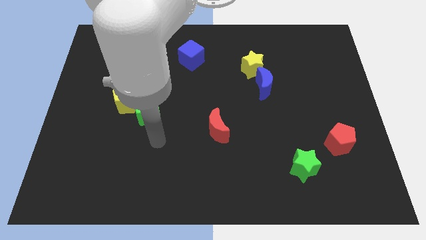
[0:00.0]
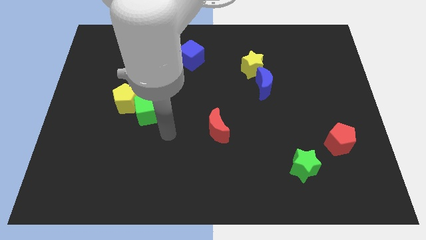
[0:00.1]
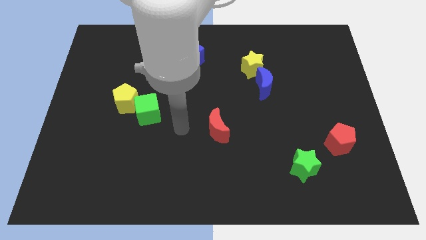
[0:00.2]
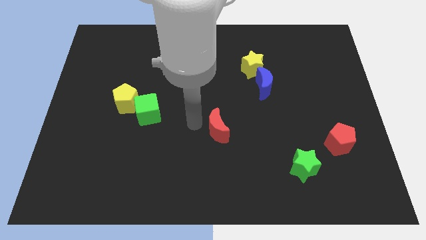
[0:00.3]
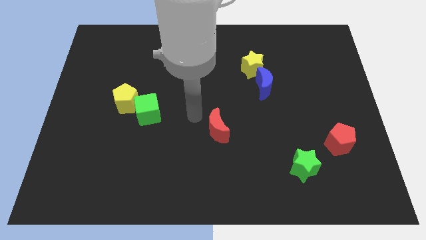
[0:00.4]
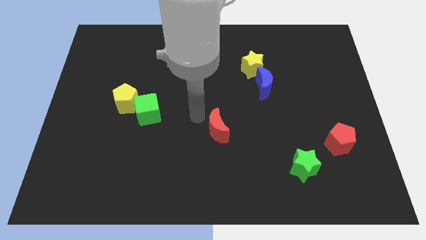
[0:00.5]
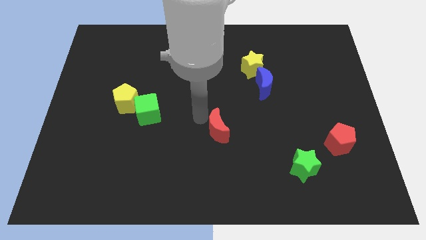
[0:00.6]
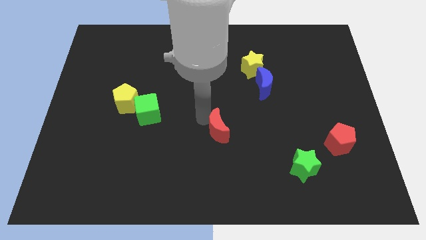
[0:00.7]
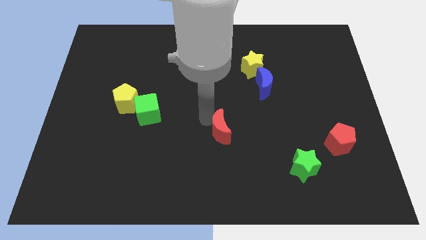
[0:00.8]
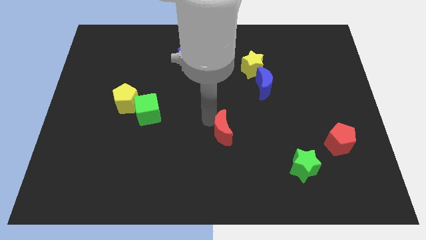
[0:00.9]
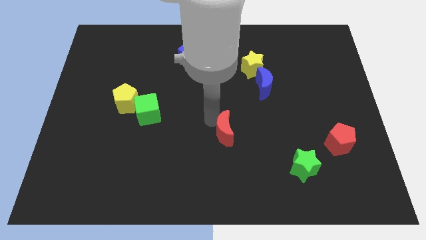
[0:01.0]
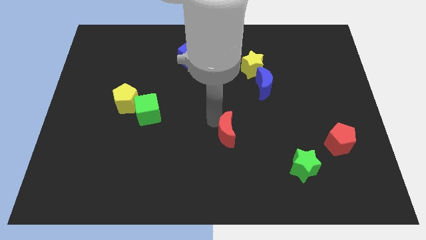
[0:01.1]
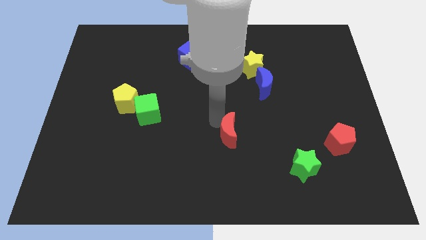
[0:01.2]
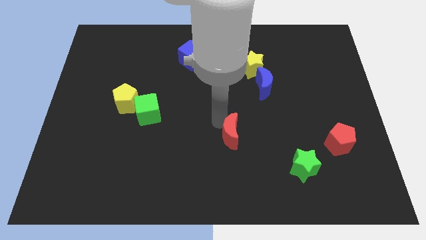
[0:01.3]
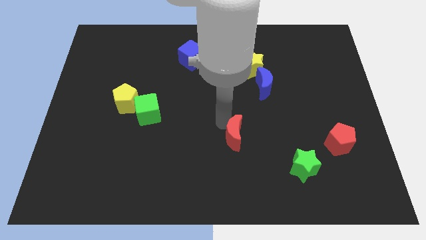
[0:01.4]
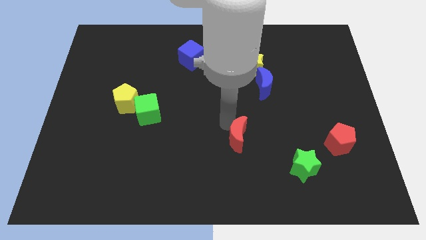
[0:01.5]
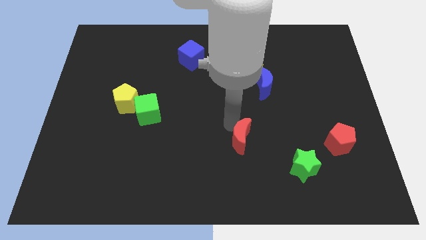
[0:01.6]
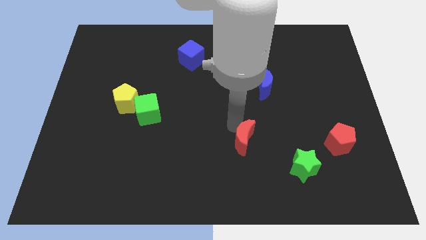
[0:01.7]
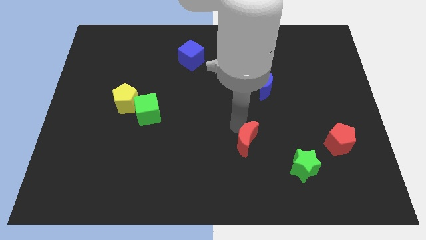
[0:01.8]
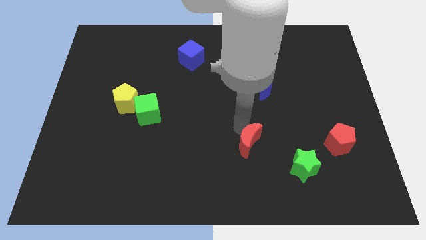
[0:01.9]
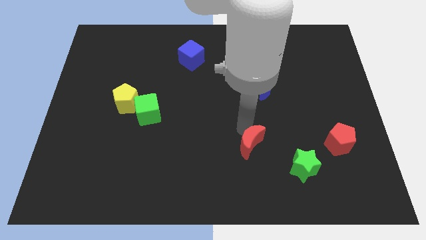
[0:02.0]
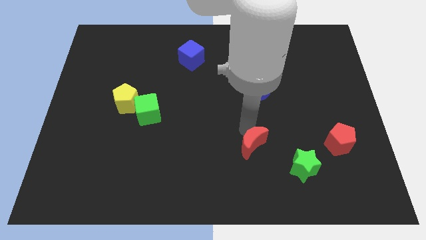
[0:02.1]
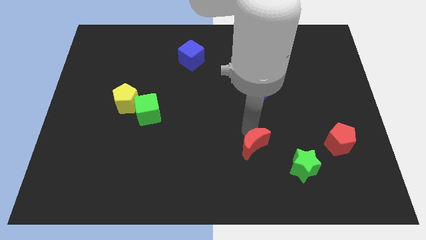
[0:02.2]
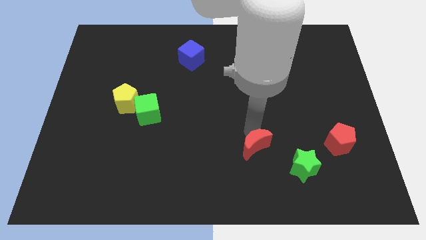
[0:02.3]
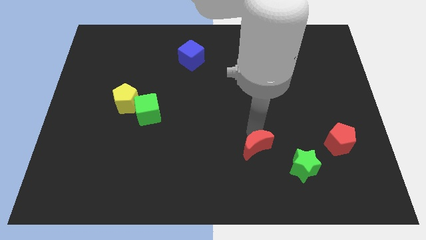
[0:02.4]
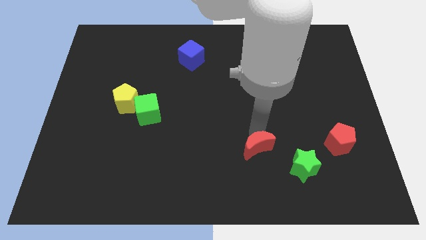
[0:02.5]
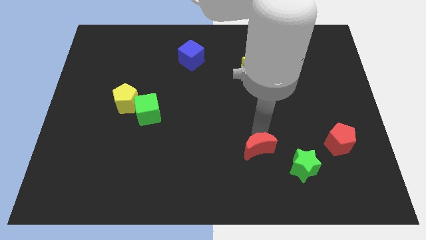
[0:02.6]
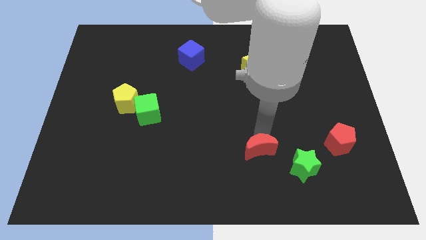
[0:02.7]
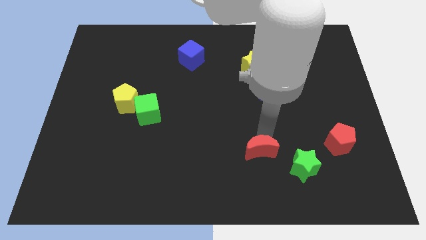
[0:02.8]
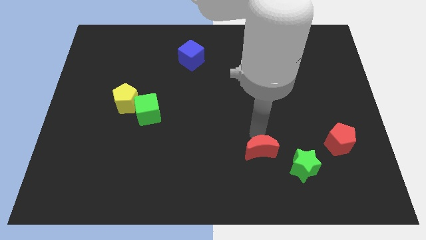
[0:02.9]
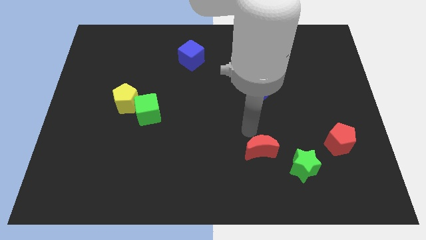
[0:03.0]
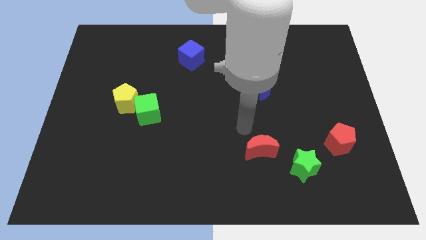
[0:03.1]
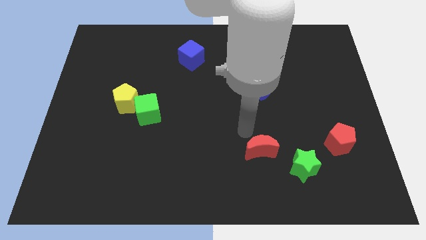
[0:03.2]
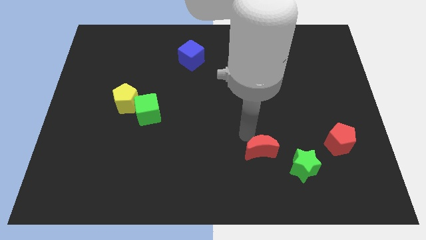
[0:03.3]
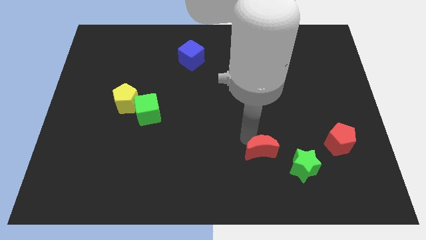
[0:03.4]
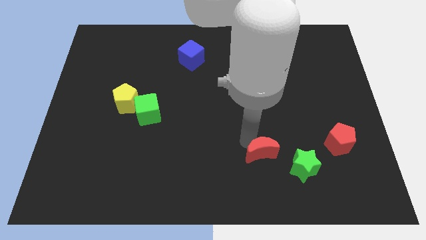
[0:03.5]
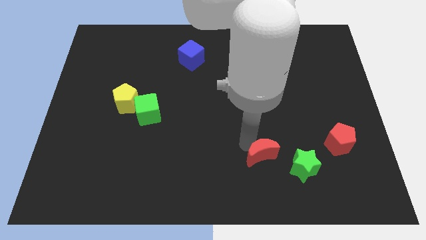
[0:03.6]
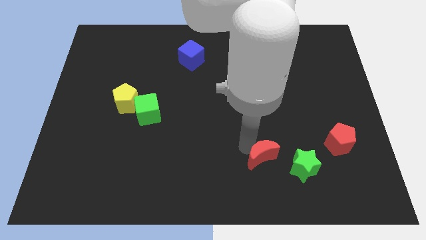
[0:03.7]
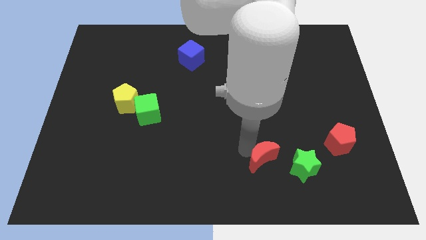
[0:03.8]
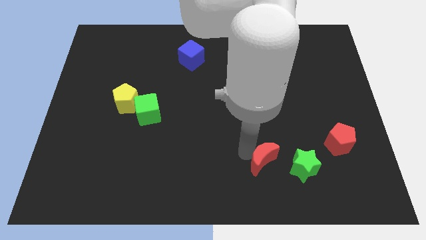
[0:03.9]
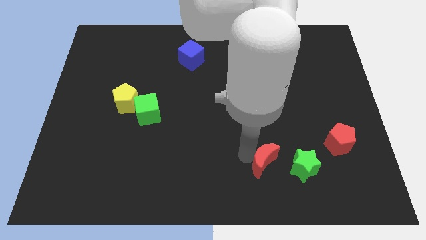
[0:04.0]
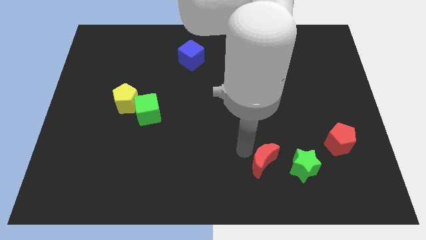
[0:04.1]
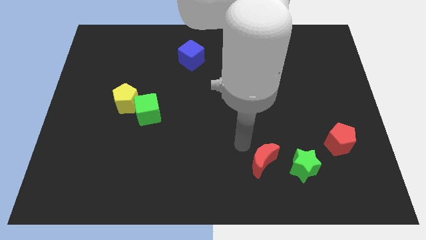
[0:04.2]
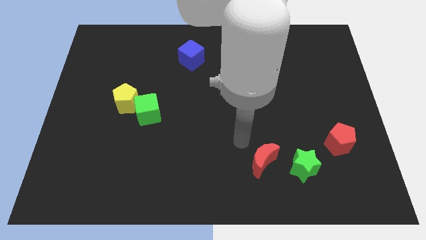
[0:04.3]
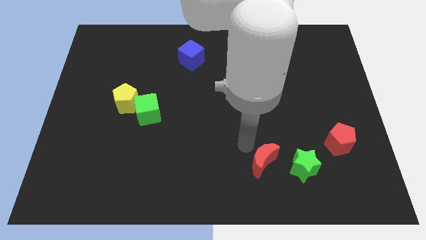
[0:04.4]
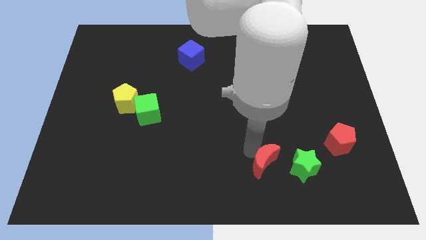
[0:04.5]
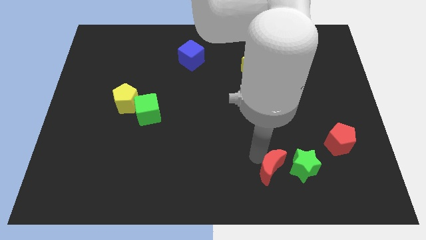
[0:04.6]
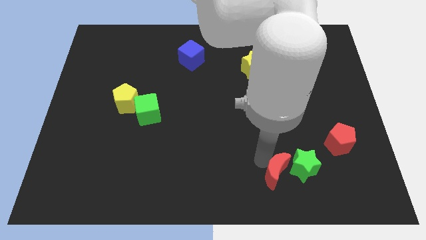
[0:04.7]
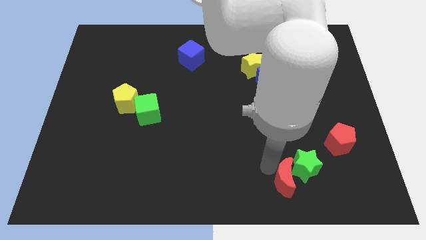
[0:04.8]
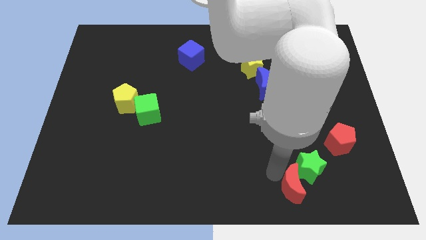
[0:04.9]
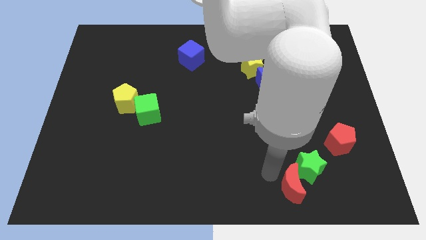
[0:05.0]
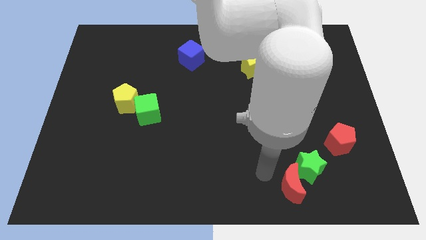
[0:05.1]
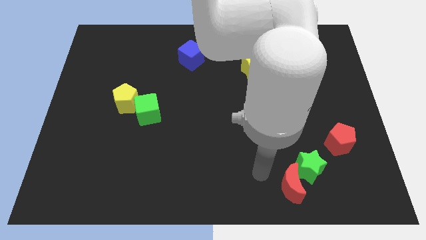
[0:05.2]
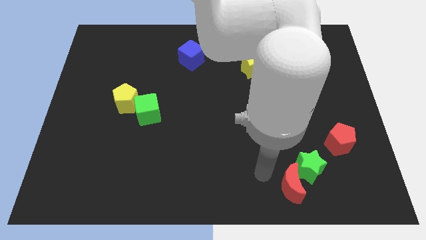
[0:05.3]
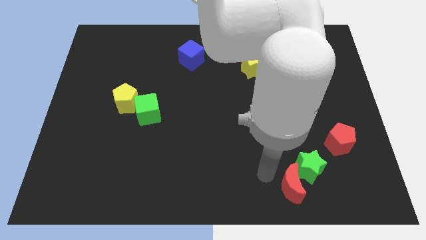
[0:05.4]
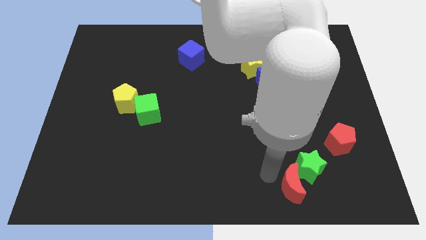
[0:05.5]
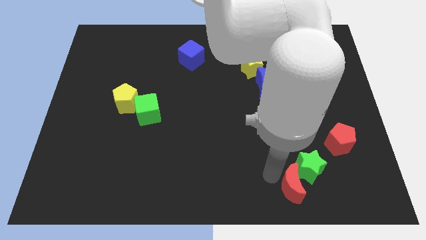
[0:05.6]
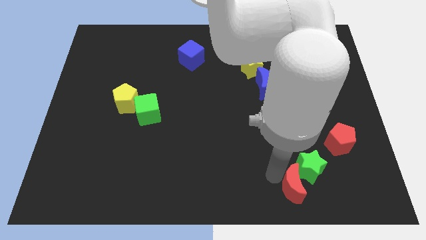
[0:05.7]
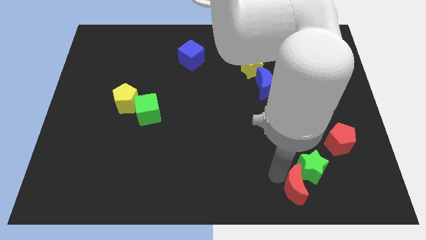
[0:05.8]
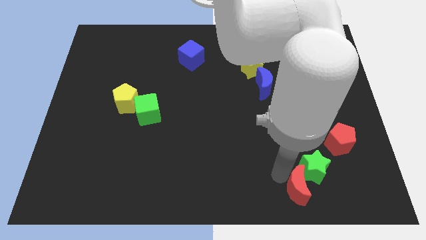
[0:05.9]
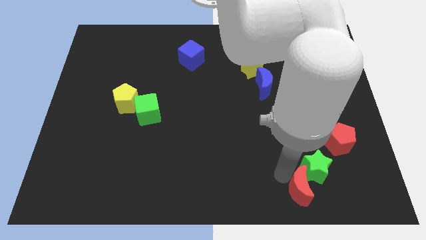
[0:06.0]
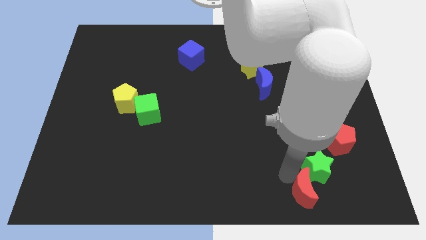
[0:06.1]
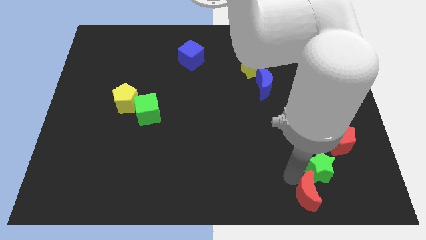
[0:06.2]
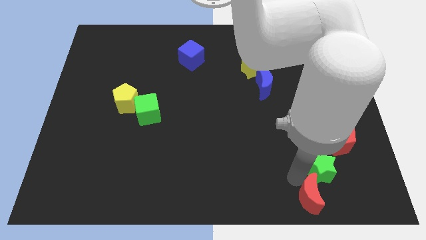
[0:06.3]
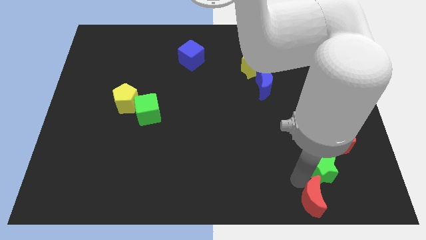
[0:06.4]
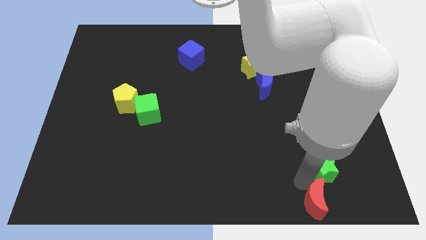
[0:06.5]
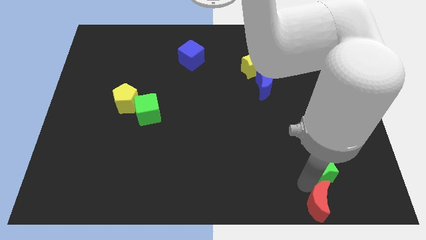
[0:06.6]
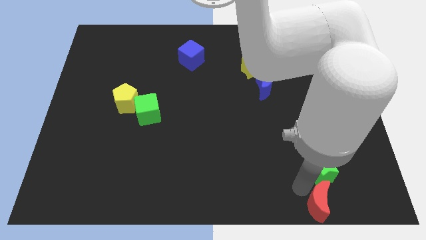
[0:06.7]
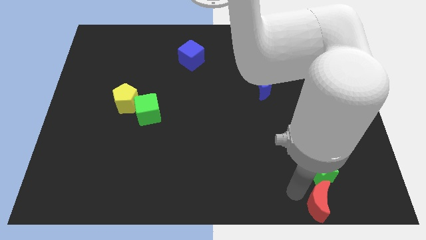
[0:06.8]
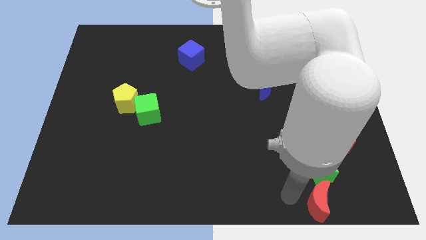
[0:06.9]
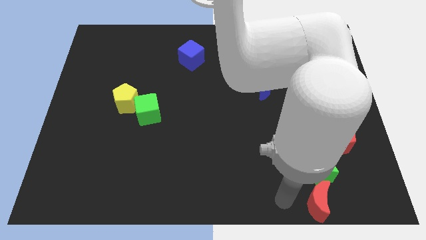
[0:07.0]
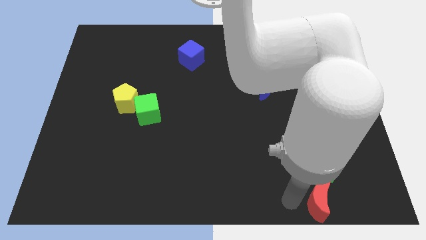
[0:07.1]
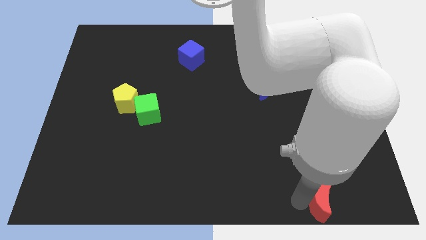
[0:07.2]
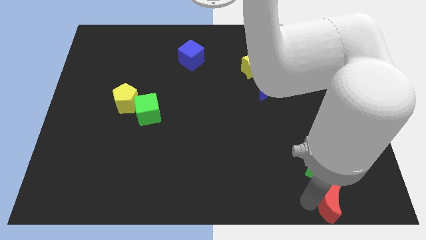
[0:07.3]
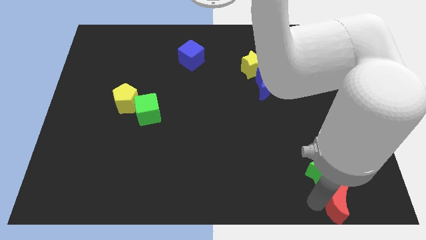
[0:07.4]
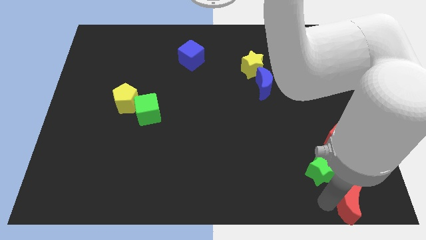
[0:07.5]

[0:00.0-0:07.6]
put the red moon to the bottom right corner
